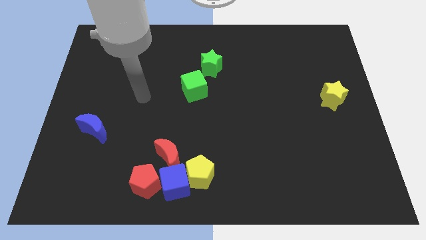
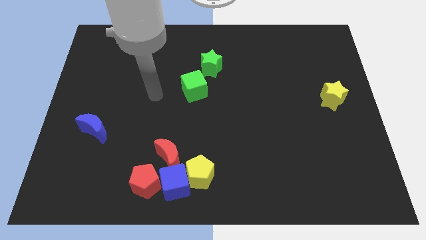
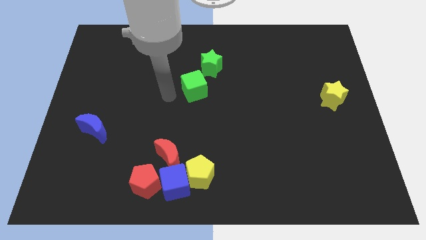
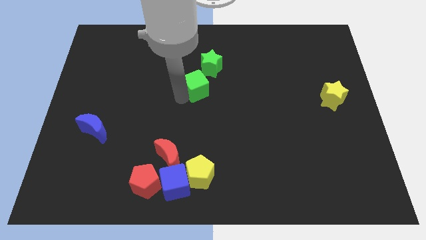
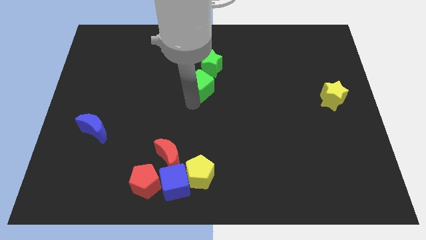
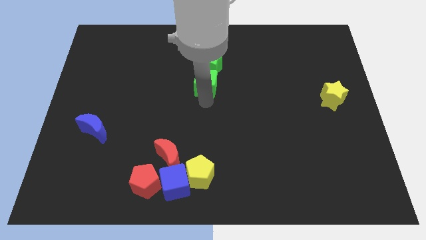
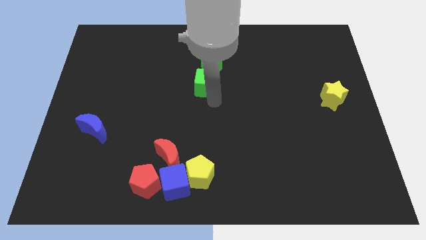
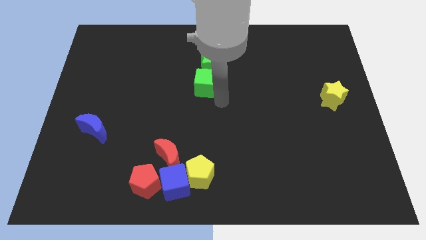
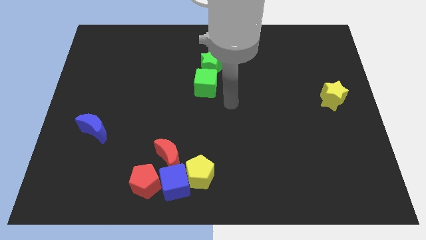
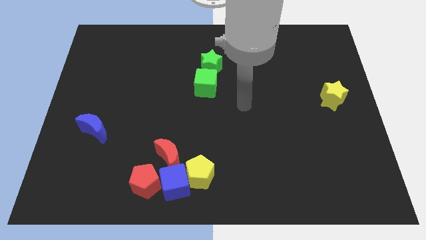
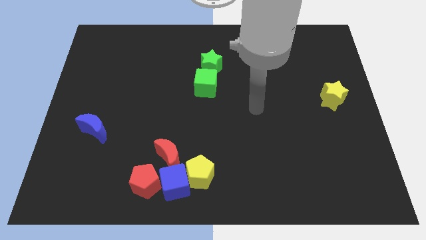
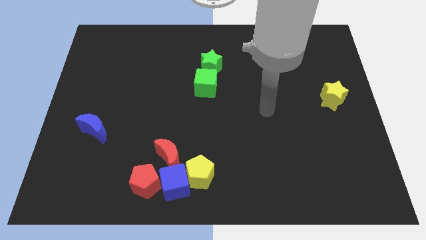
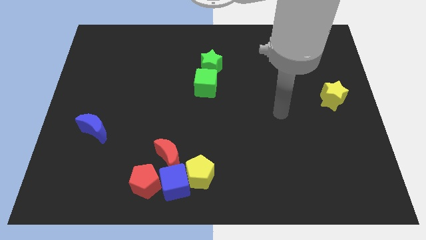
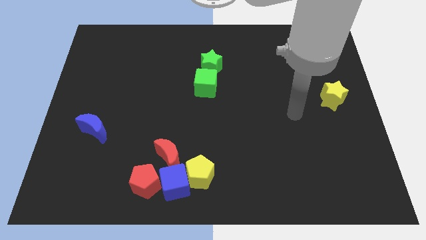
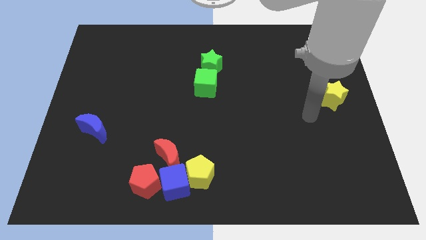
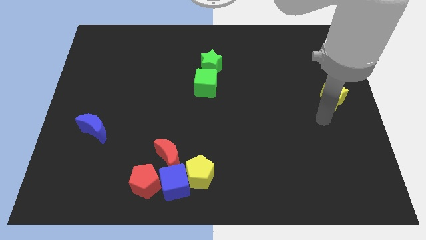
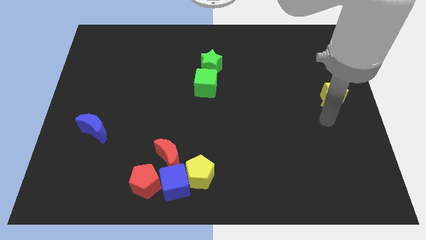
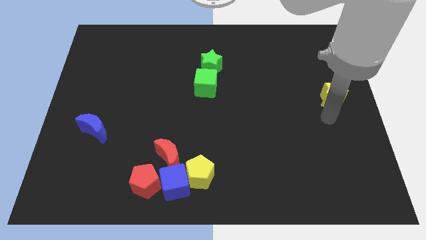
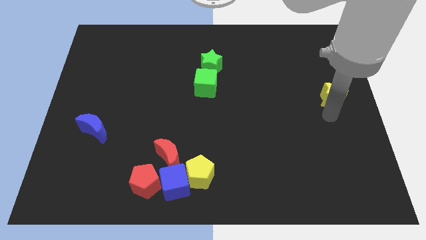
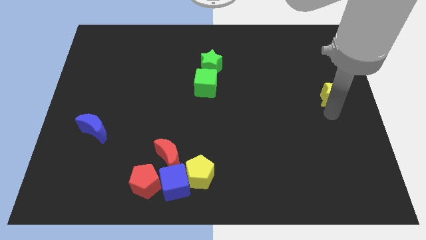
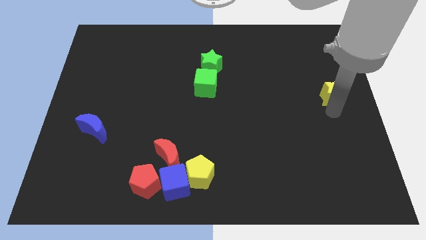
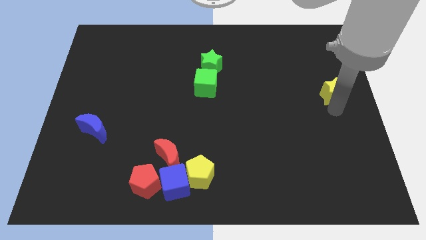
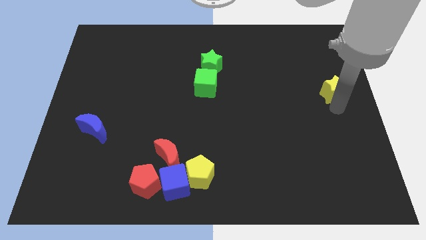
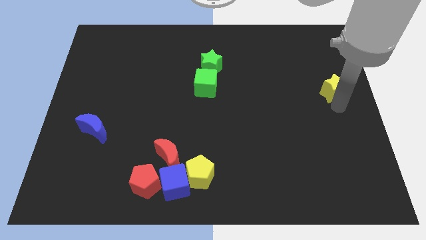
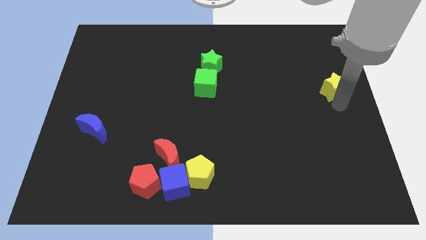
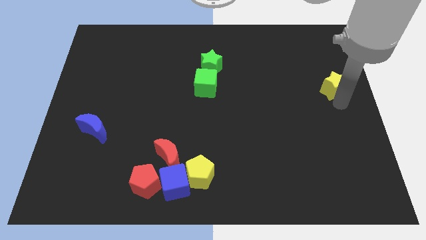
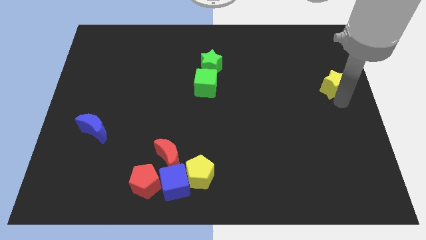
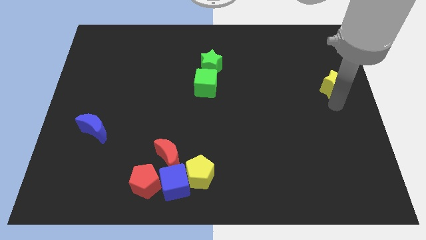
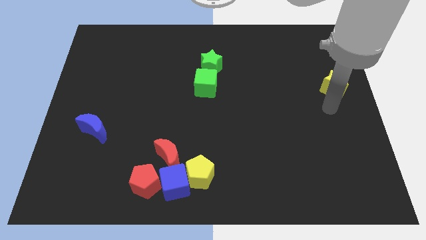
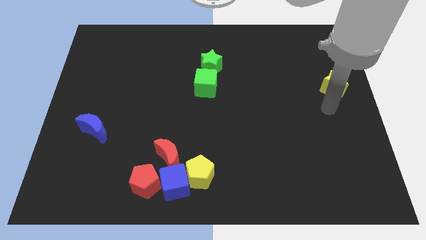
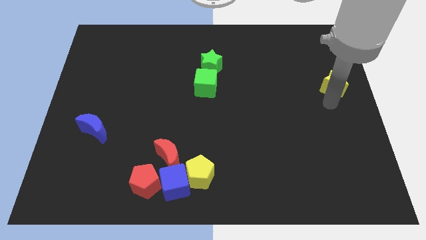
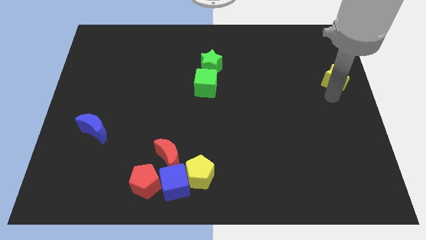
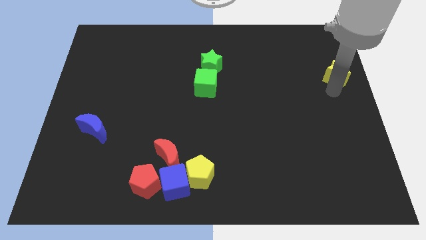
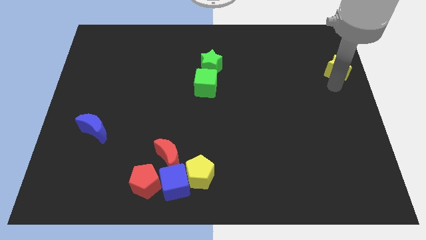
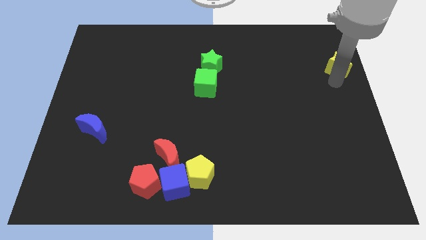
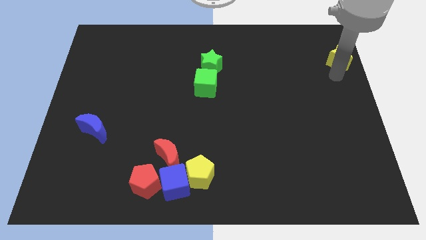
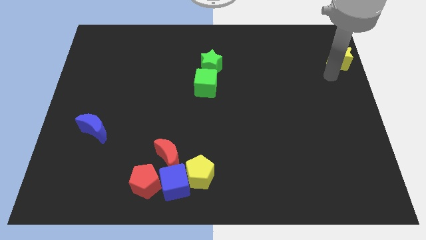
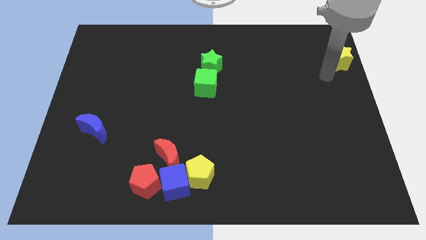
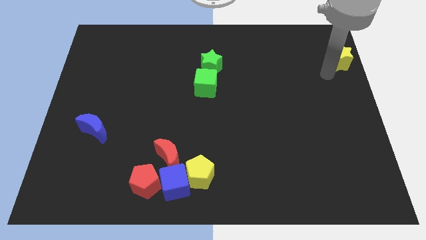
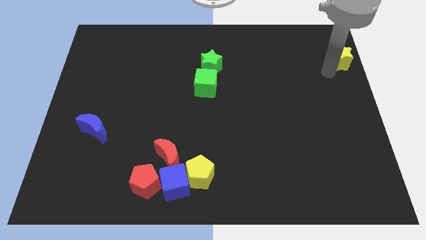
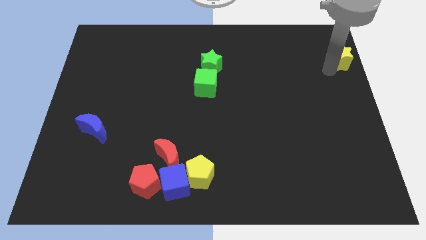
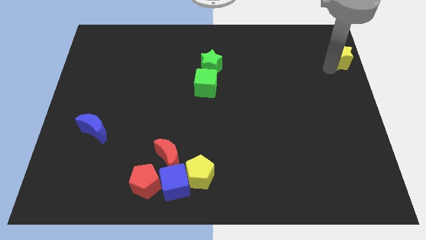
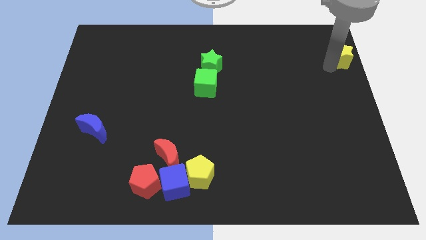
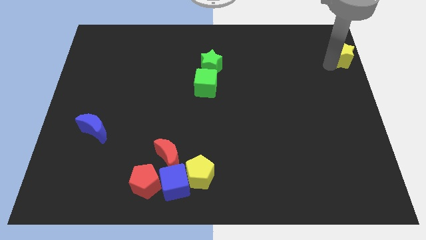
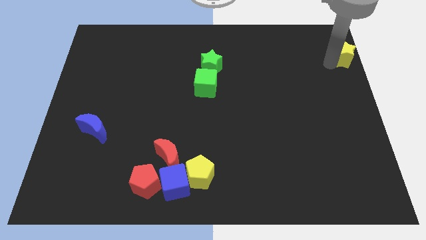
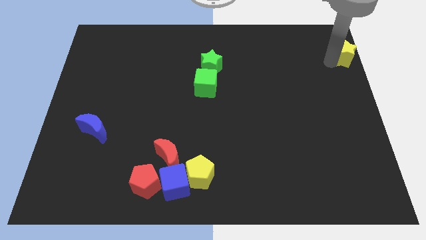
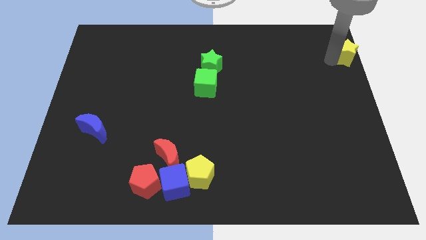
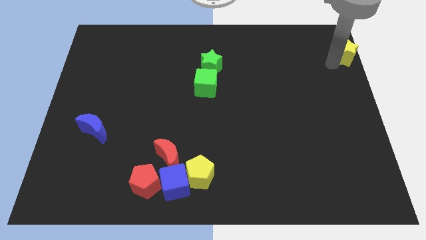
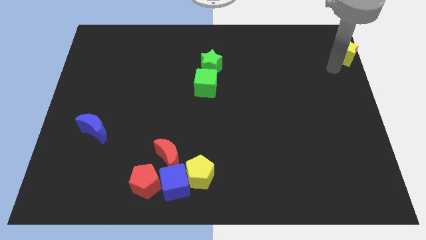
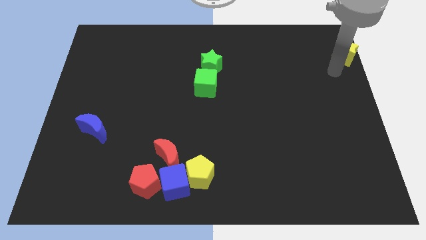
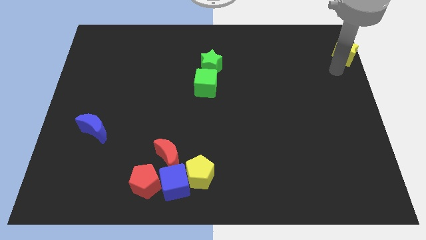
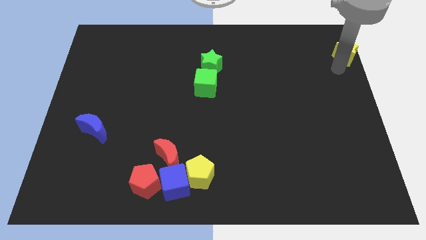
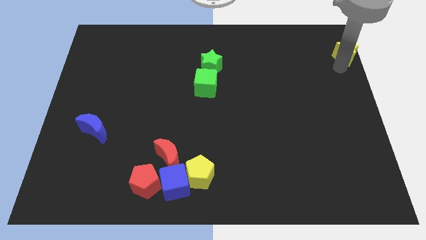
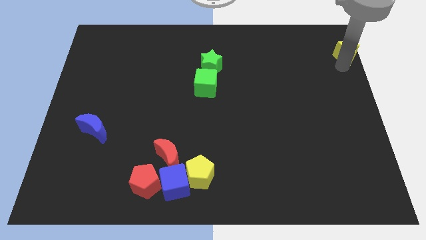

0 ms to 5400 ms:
slide the yellow star to the upper right corner

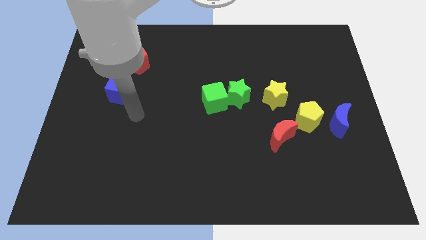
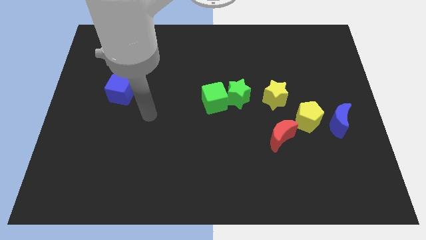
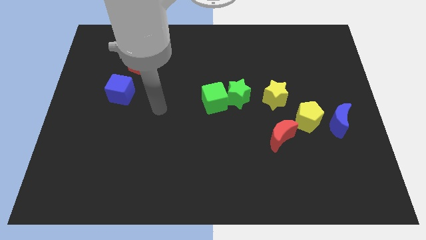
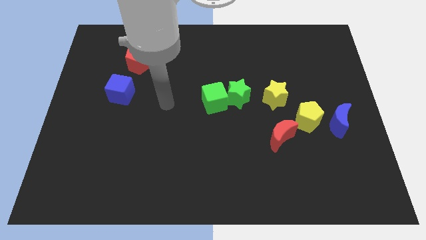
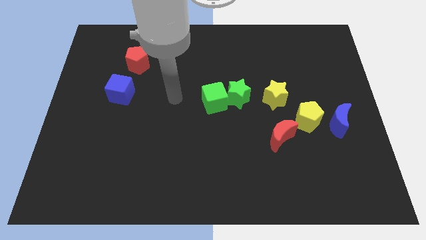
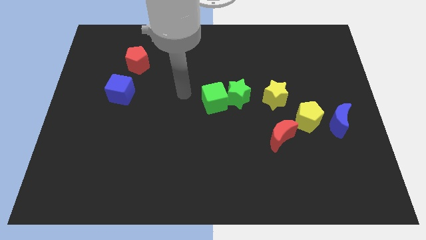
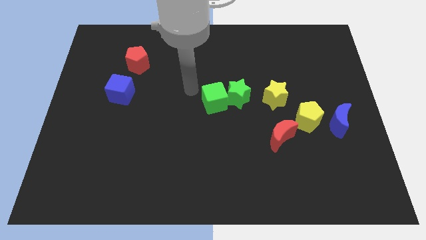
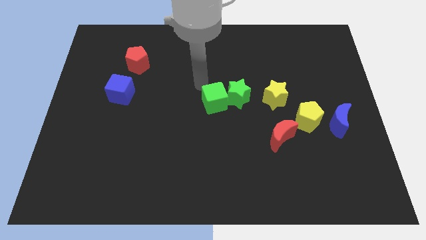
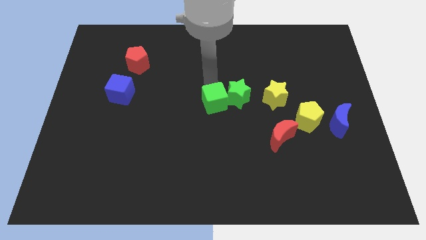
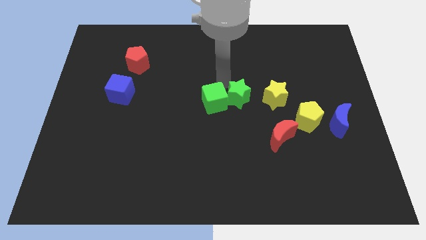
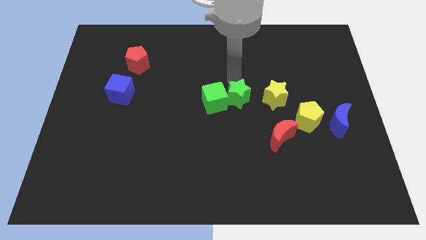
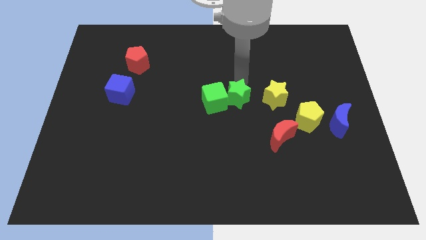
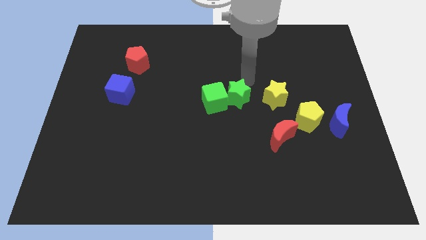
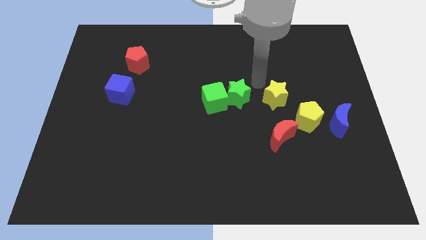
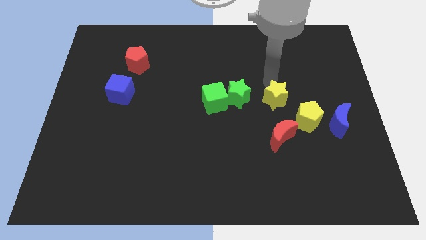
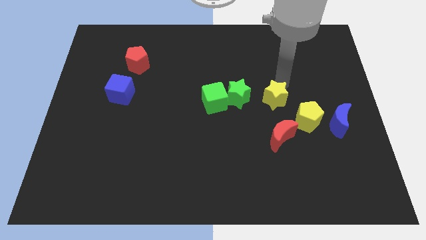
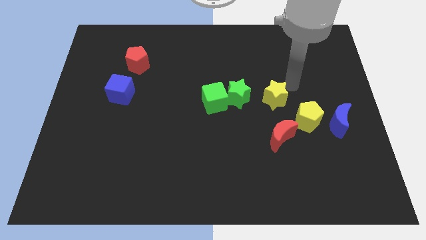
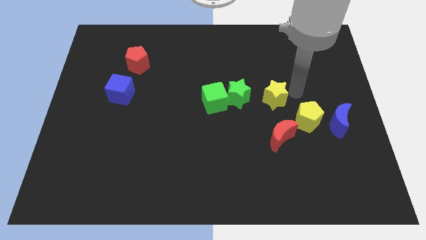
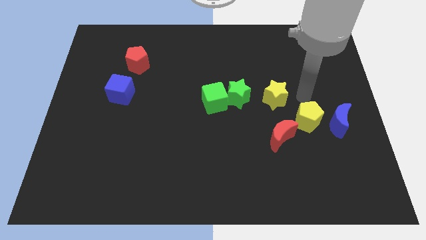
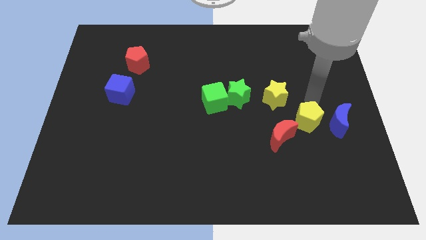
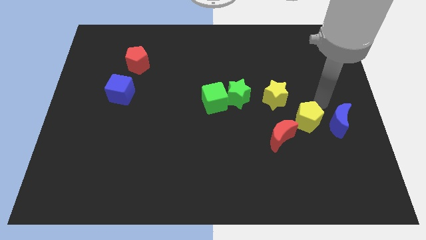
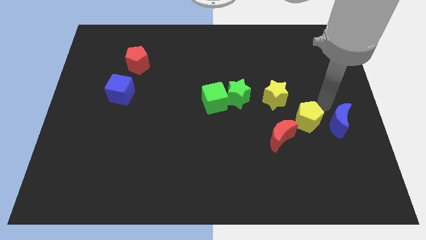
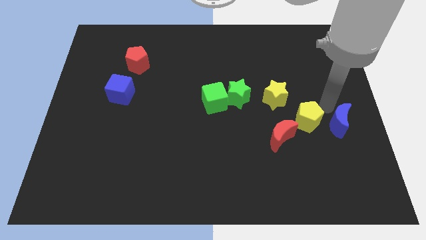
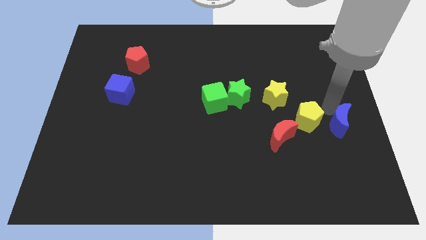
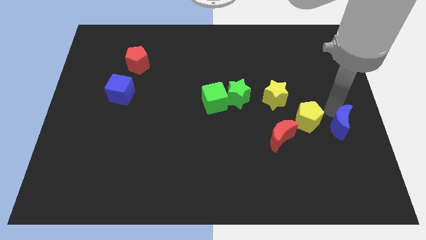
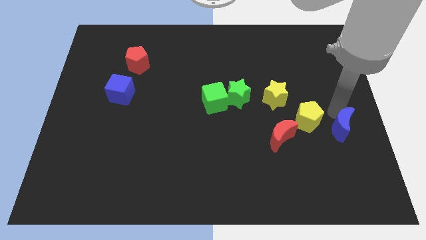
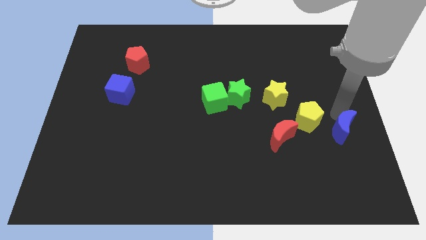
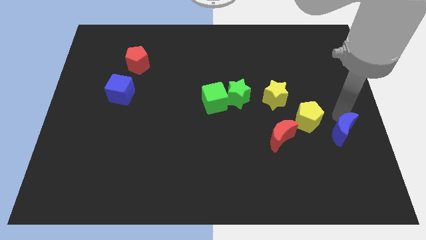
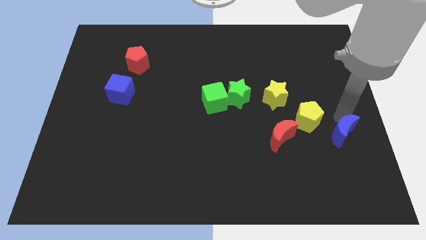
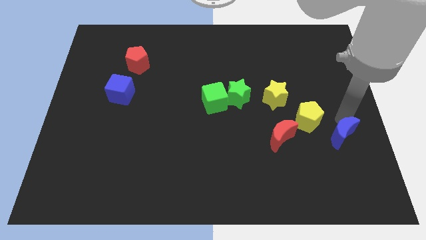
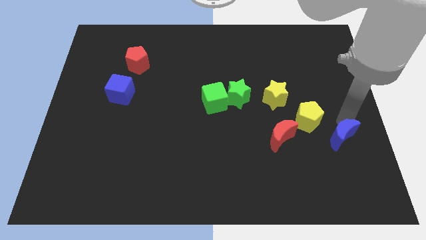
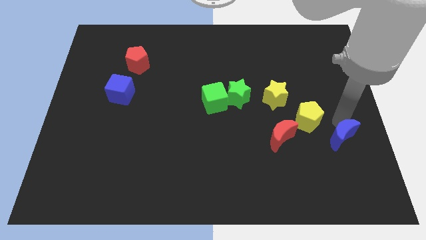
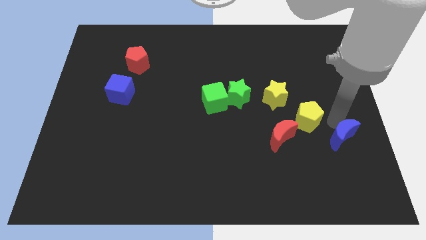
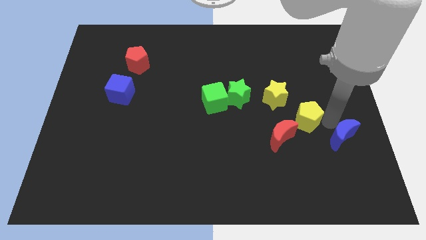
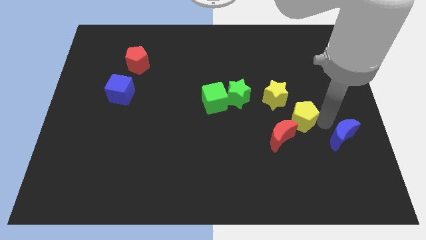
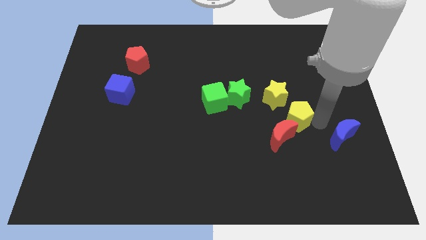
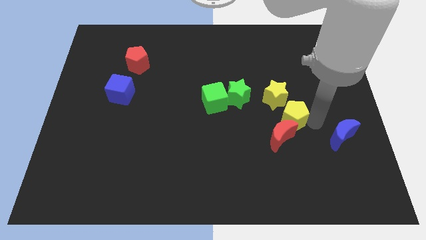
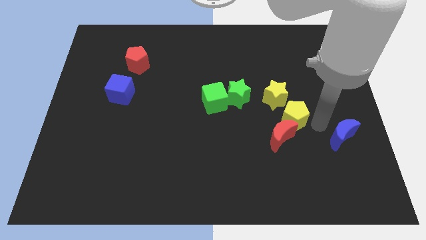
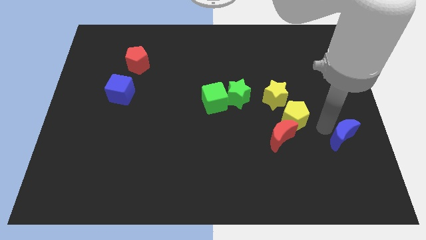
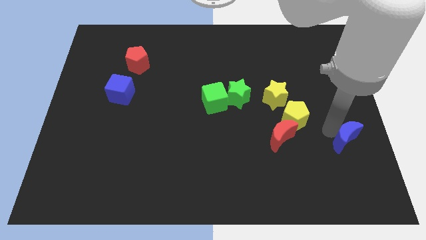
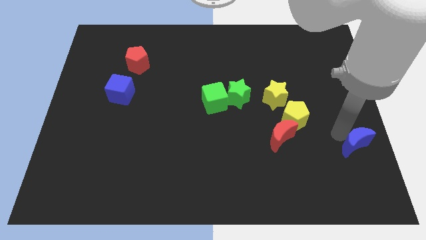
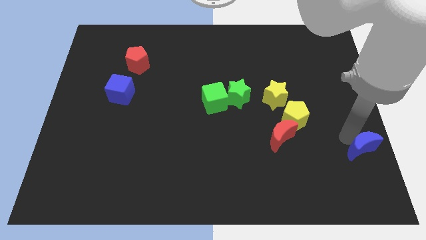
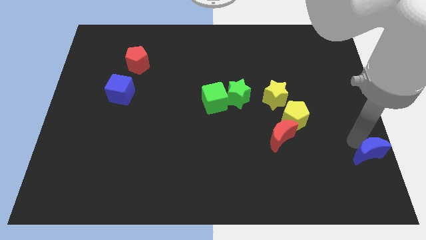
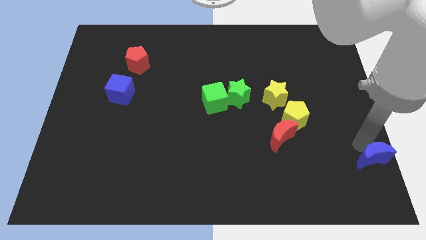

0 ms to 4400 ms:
push the blue moon to the bottom right
